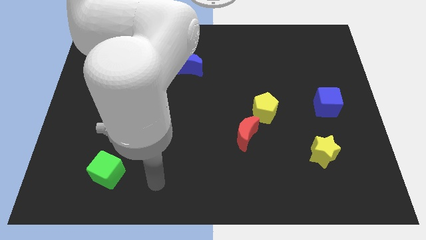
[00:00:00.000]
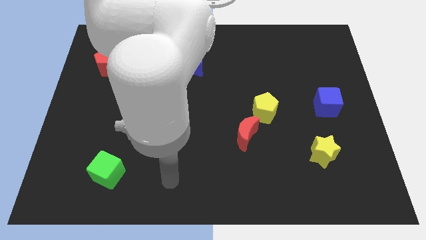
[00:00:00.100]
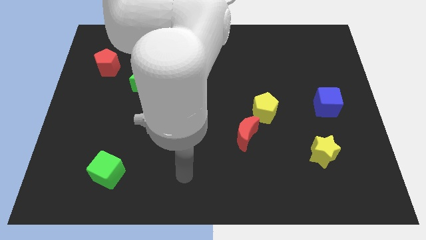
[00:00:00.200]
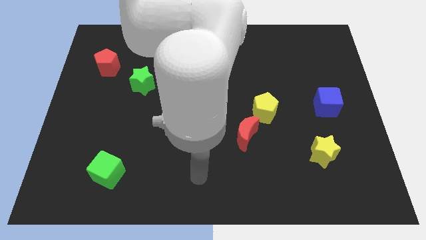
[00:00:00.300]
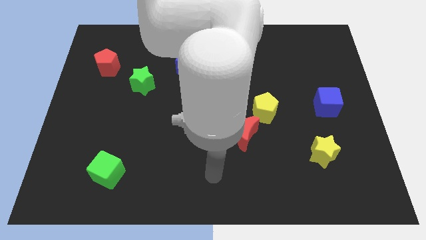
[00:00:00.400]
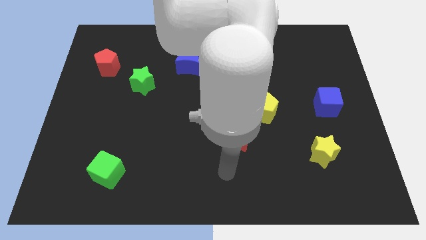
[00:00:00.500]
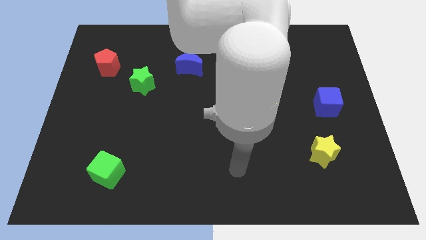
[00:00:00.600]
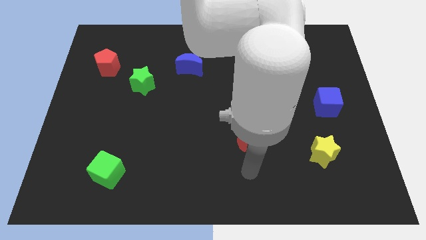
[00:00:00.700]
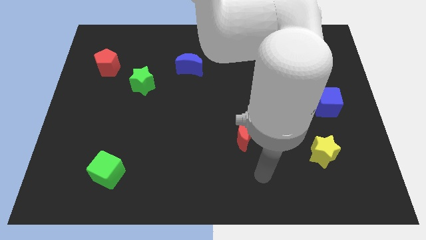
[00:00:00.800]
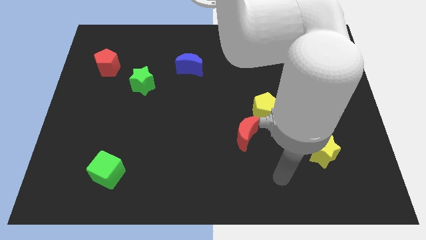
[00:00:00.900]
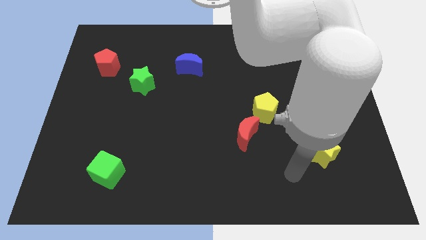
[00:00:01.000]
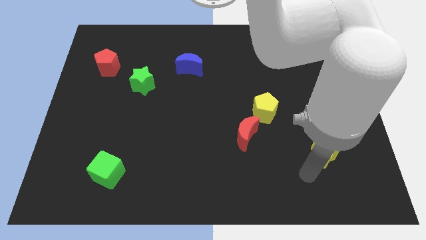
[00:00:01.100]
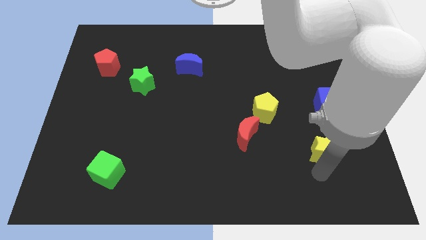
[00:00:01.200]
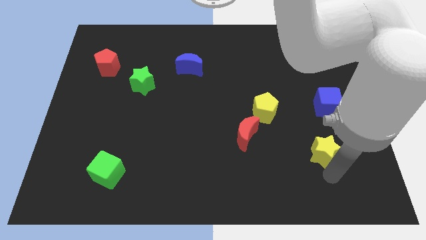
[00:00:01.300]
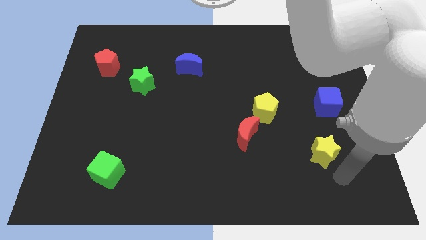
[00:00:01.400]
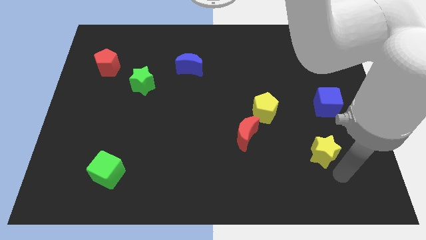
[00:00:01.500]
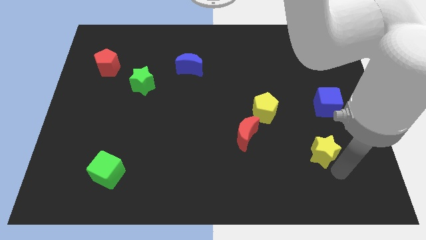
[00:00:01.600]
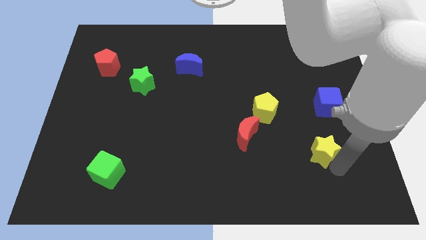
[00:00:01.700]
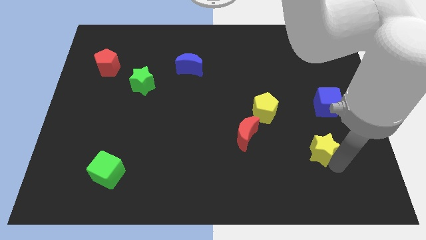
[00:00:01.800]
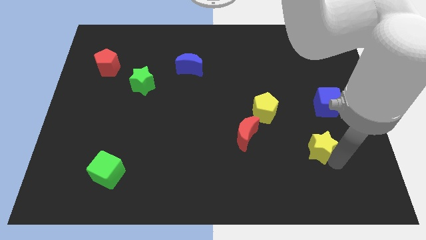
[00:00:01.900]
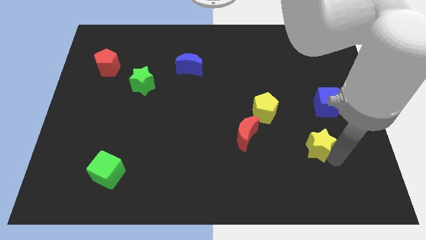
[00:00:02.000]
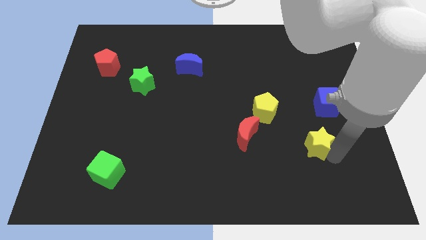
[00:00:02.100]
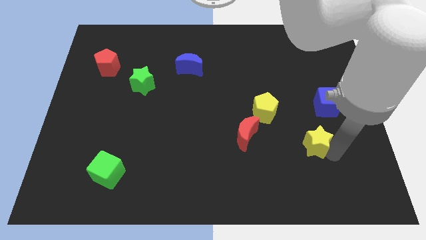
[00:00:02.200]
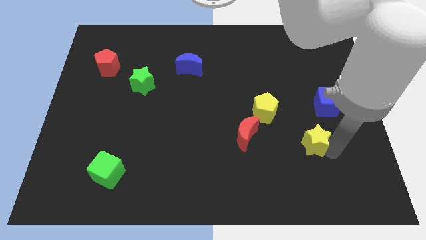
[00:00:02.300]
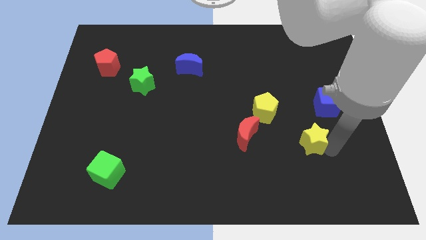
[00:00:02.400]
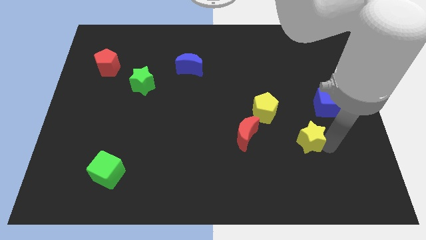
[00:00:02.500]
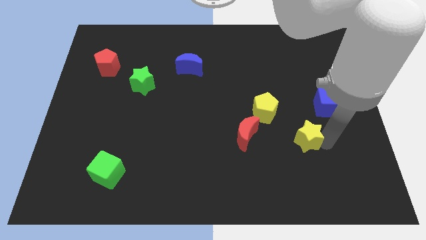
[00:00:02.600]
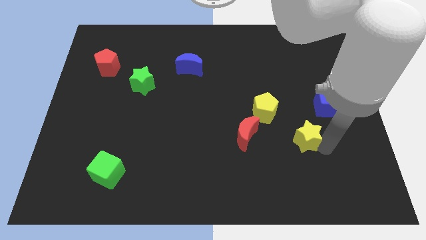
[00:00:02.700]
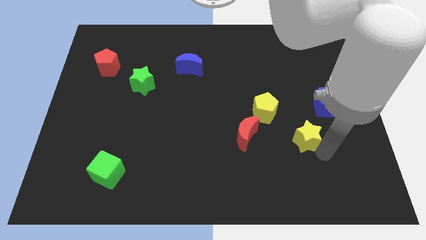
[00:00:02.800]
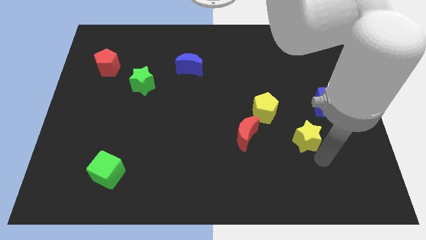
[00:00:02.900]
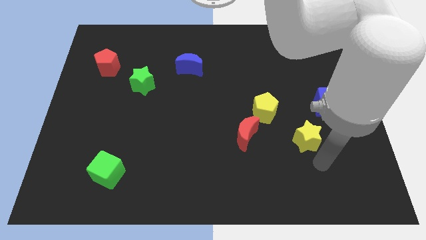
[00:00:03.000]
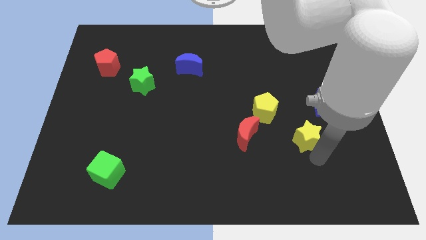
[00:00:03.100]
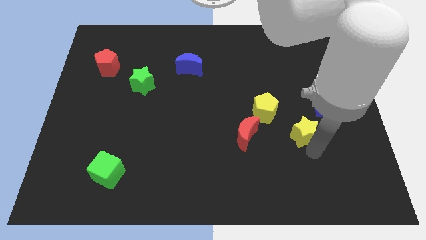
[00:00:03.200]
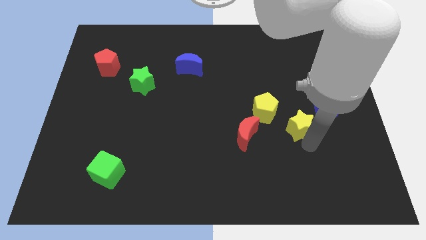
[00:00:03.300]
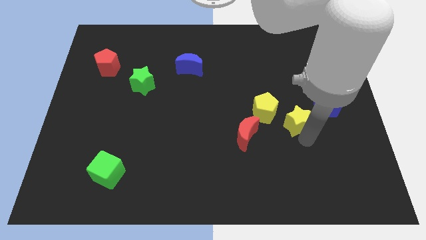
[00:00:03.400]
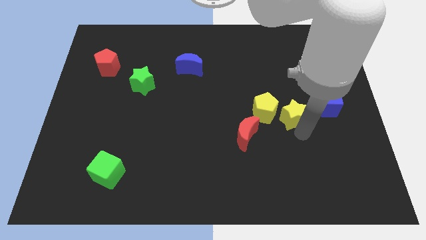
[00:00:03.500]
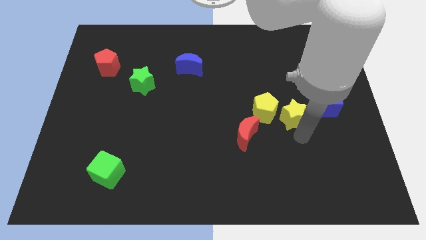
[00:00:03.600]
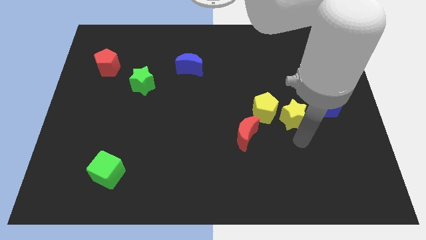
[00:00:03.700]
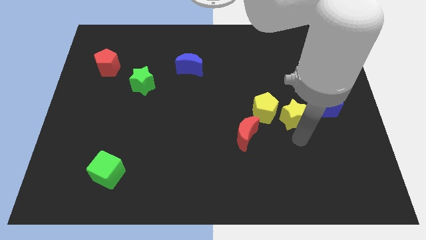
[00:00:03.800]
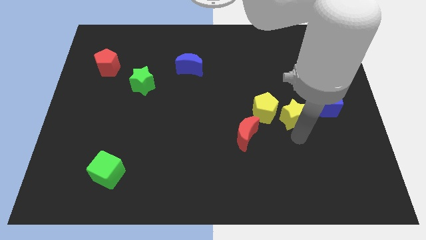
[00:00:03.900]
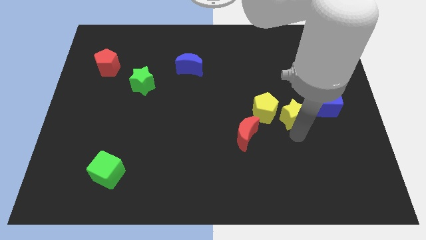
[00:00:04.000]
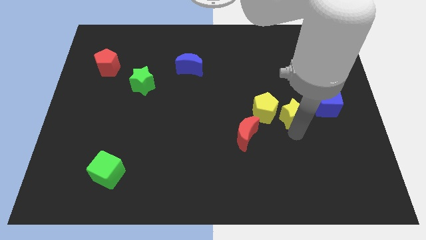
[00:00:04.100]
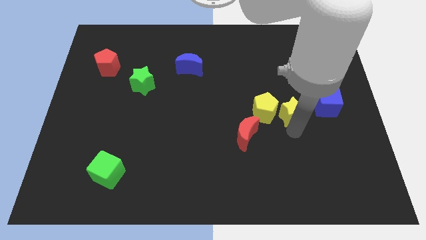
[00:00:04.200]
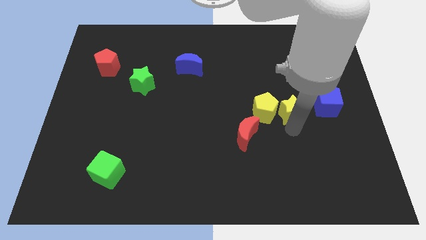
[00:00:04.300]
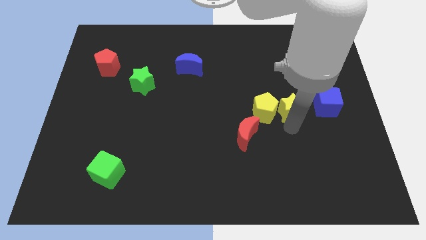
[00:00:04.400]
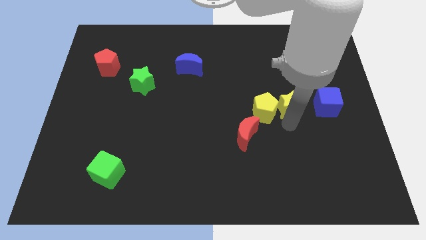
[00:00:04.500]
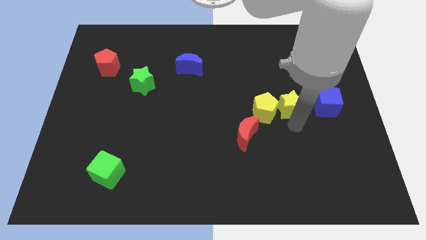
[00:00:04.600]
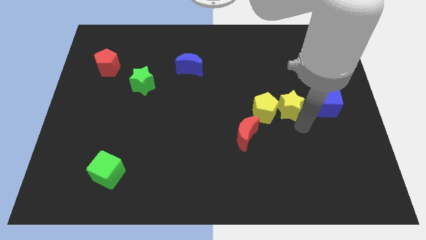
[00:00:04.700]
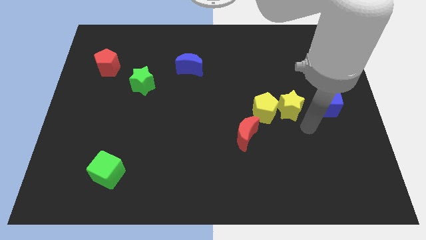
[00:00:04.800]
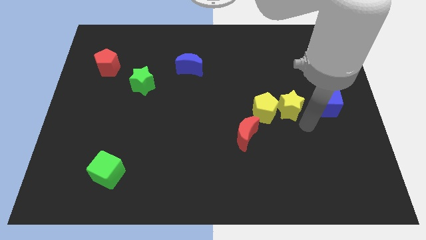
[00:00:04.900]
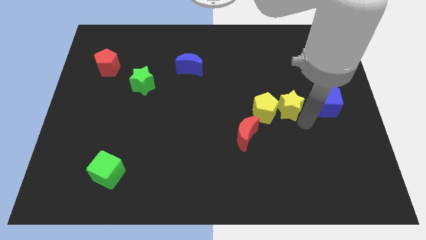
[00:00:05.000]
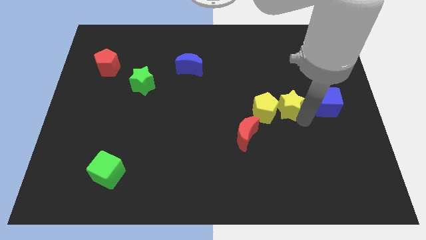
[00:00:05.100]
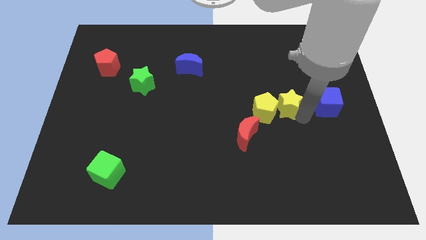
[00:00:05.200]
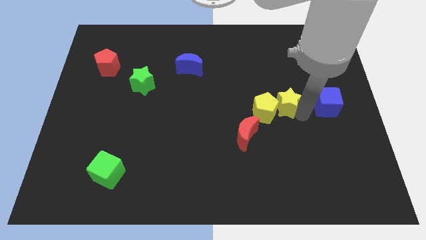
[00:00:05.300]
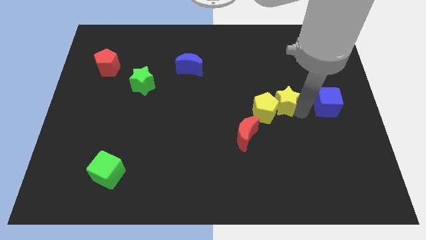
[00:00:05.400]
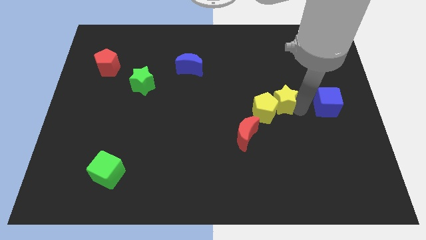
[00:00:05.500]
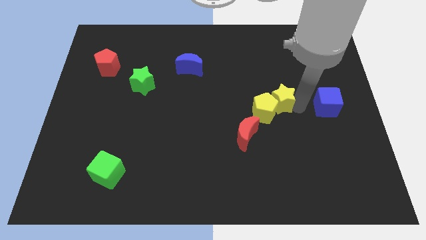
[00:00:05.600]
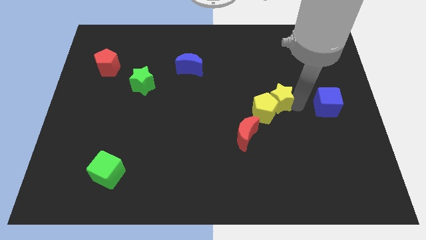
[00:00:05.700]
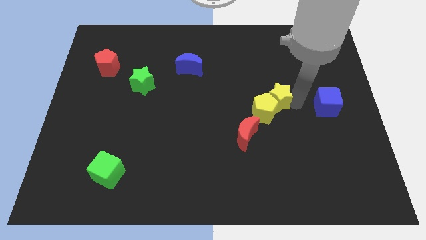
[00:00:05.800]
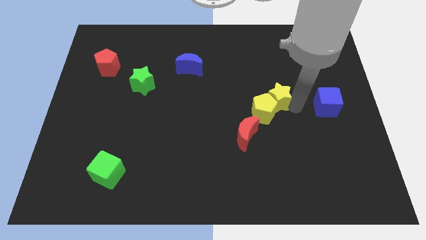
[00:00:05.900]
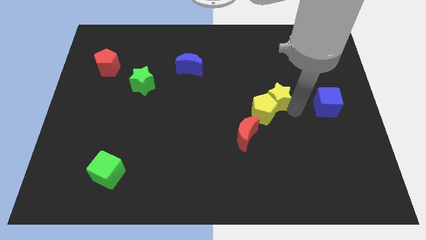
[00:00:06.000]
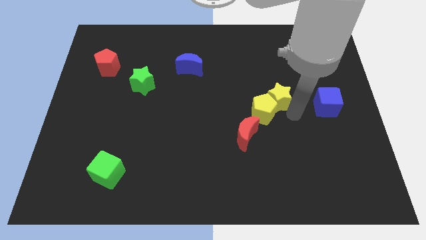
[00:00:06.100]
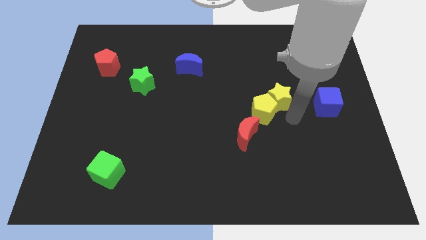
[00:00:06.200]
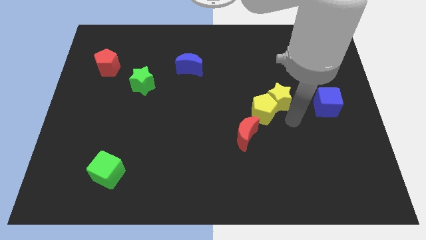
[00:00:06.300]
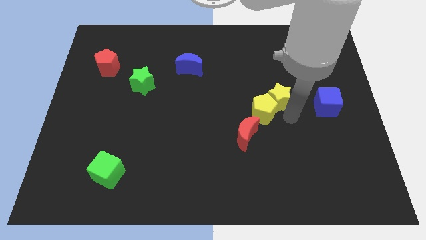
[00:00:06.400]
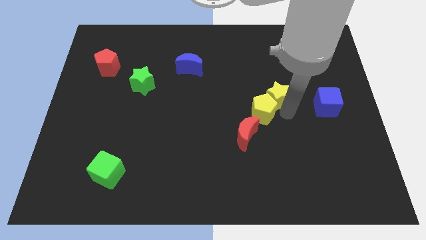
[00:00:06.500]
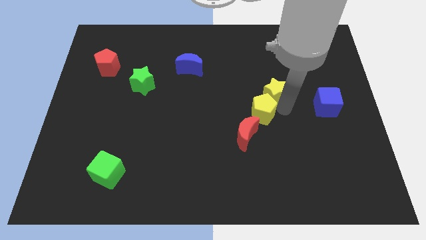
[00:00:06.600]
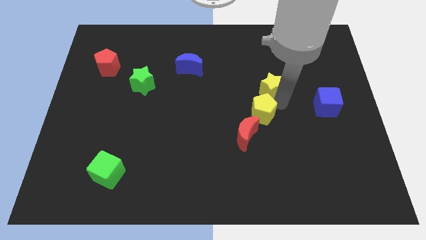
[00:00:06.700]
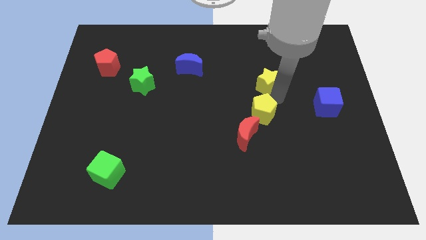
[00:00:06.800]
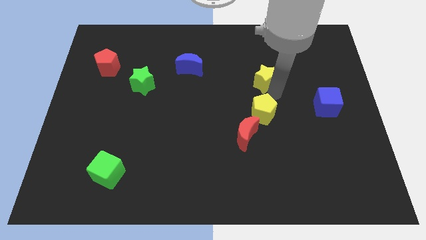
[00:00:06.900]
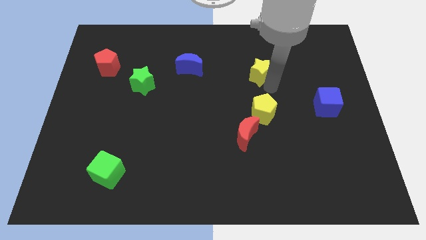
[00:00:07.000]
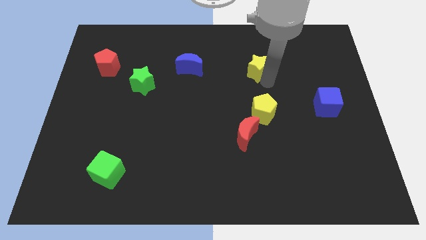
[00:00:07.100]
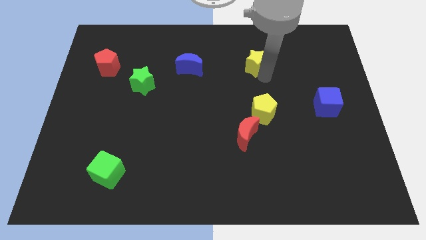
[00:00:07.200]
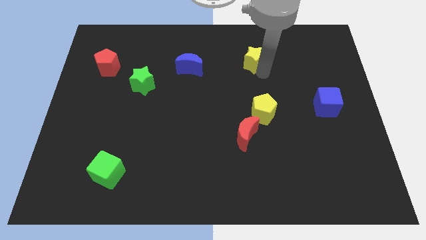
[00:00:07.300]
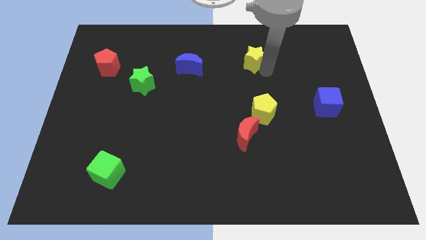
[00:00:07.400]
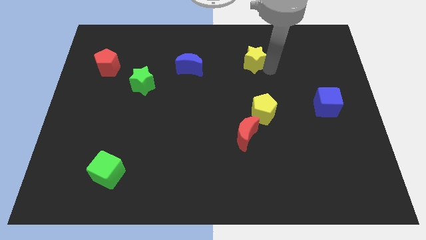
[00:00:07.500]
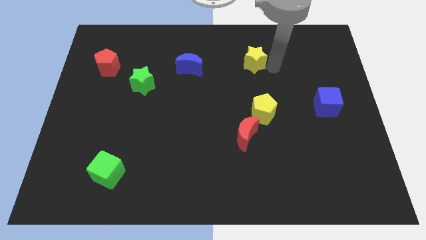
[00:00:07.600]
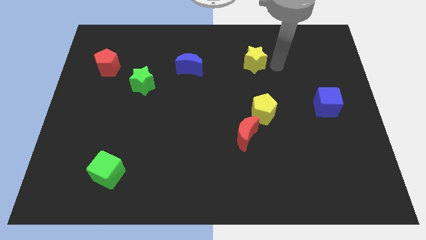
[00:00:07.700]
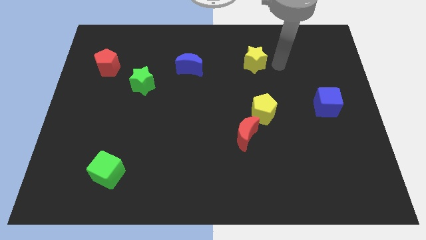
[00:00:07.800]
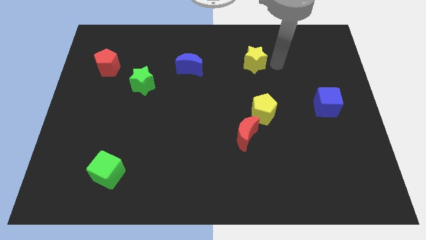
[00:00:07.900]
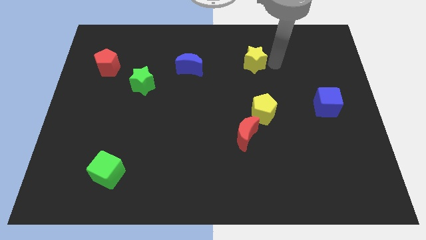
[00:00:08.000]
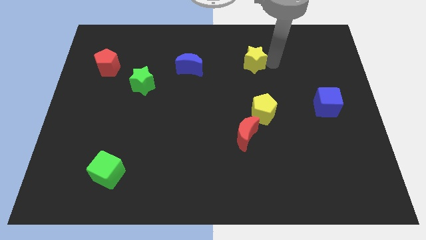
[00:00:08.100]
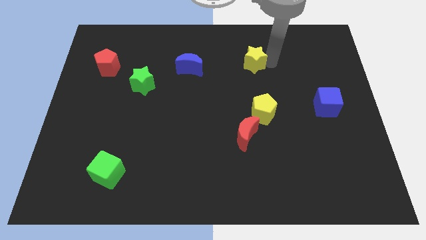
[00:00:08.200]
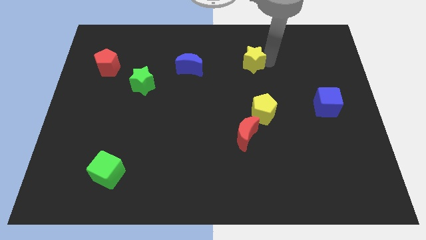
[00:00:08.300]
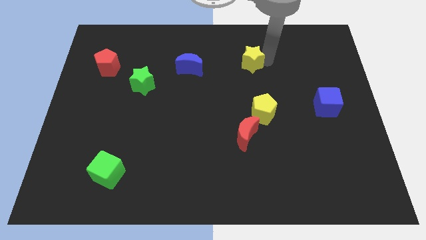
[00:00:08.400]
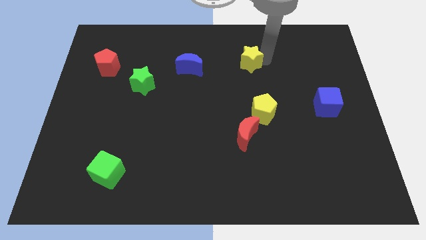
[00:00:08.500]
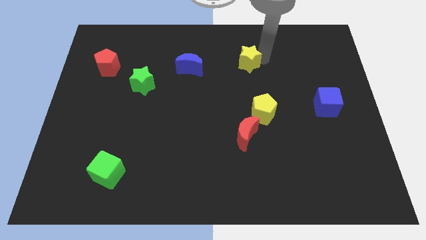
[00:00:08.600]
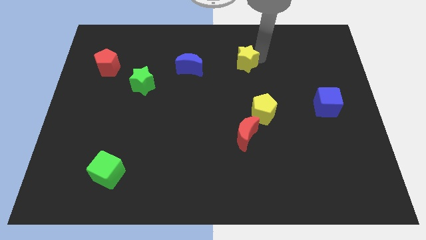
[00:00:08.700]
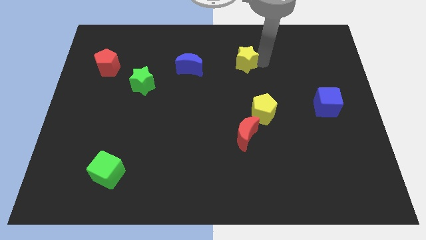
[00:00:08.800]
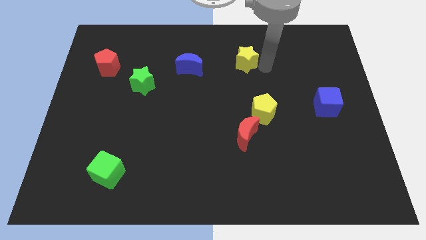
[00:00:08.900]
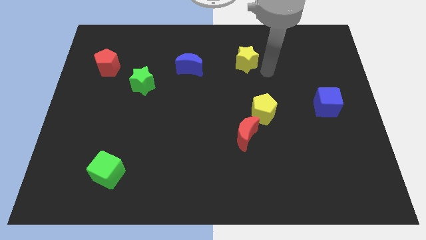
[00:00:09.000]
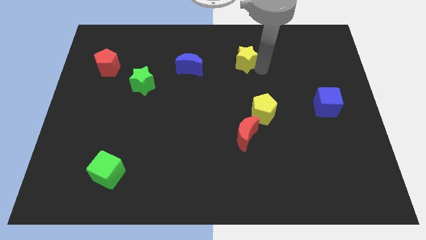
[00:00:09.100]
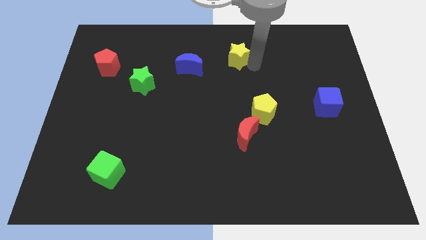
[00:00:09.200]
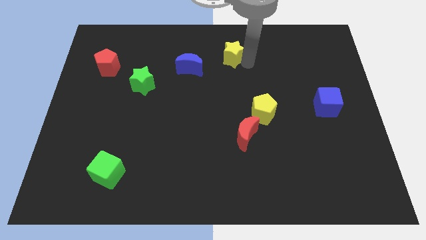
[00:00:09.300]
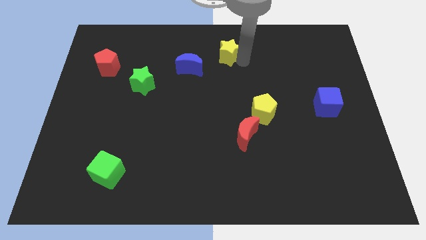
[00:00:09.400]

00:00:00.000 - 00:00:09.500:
slide the yellow star to the towards your base
